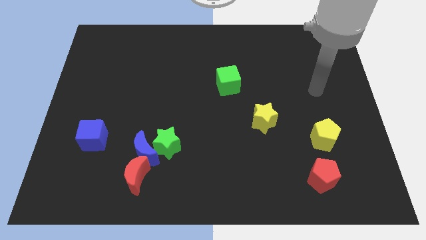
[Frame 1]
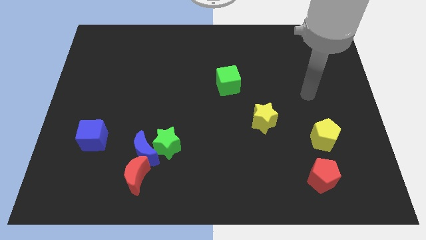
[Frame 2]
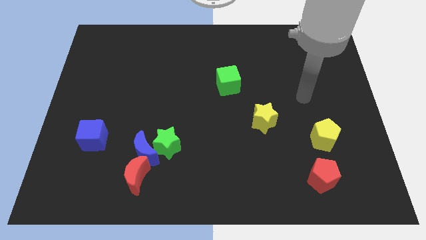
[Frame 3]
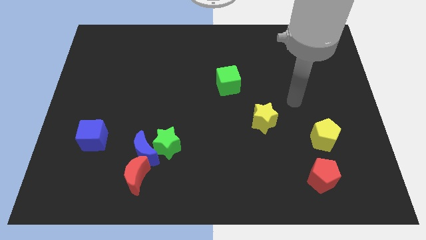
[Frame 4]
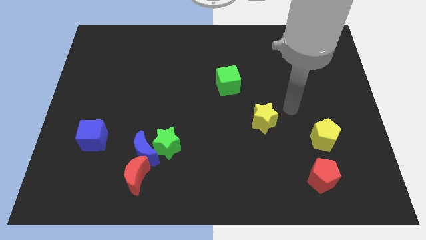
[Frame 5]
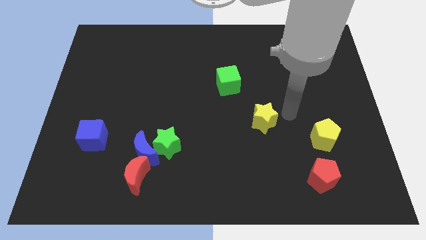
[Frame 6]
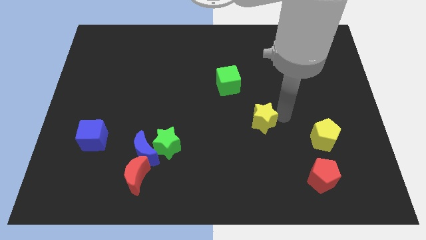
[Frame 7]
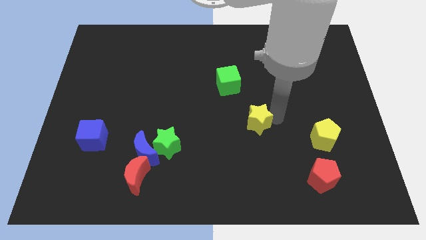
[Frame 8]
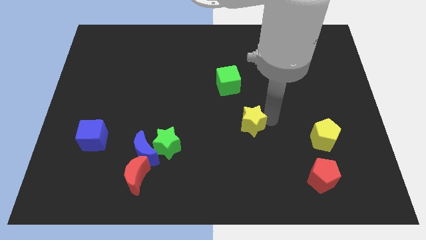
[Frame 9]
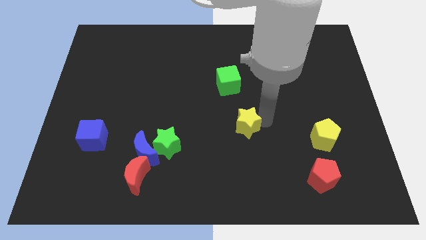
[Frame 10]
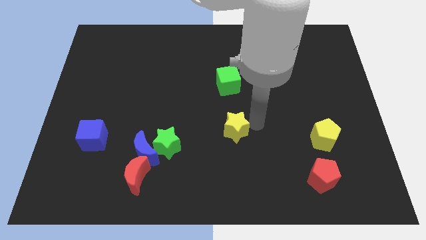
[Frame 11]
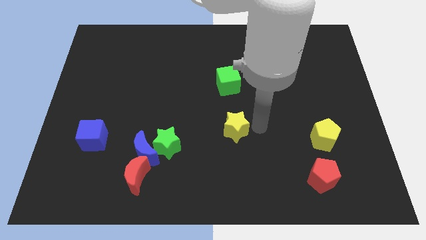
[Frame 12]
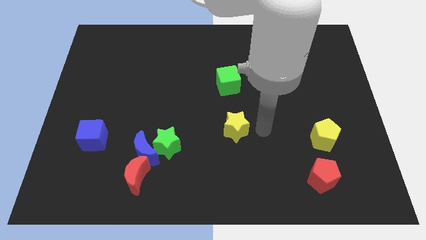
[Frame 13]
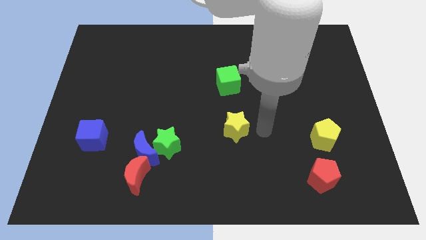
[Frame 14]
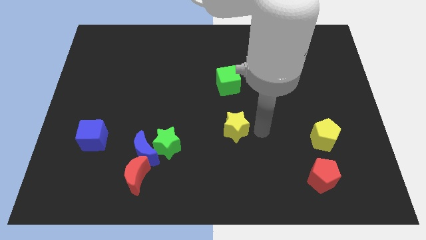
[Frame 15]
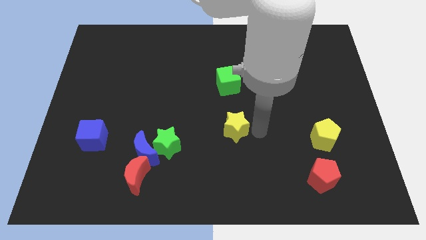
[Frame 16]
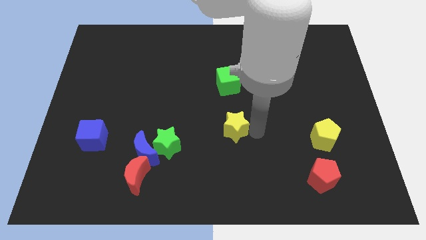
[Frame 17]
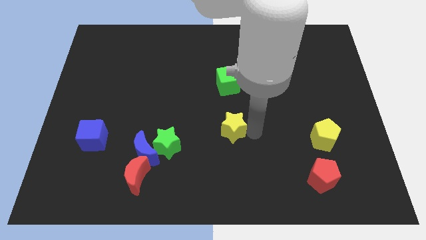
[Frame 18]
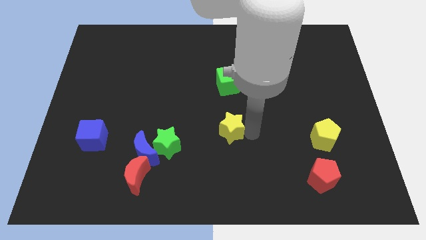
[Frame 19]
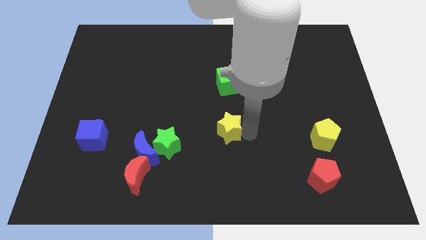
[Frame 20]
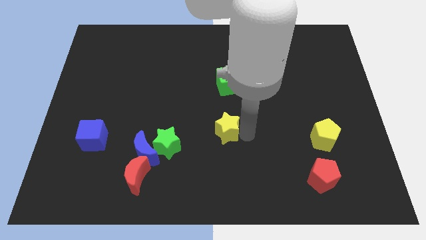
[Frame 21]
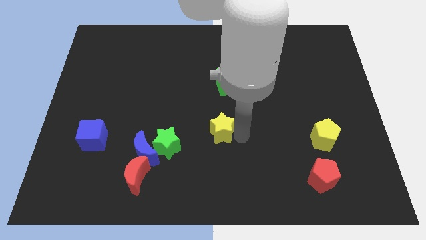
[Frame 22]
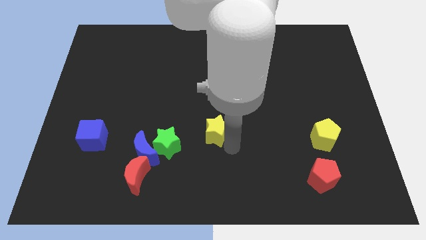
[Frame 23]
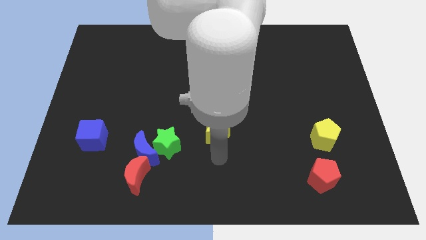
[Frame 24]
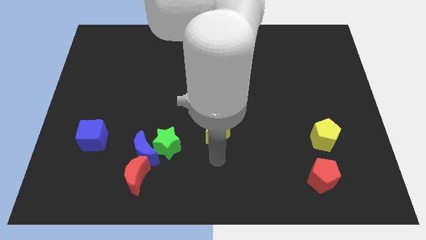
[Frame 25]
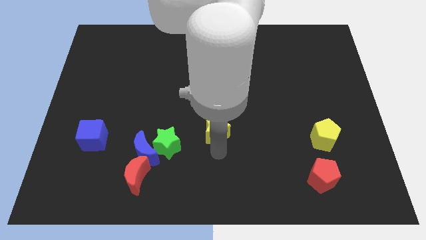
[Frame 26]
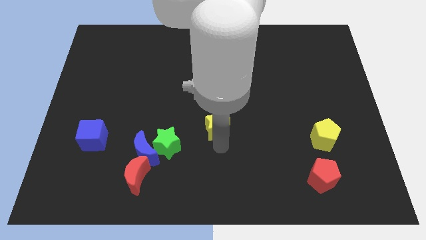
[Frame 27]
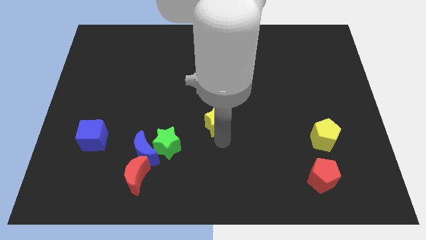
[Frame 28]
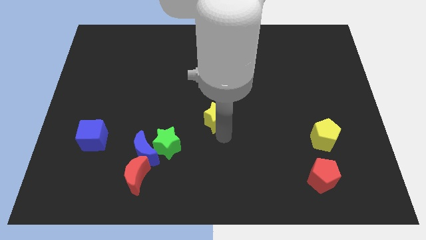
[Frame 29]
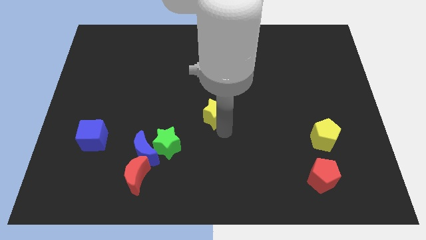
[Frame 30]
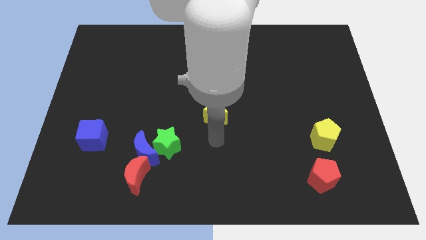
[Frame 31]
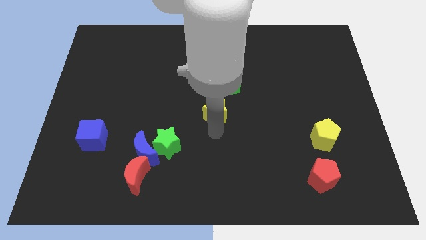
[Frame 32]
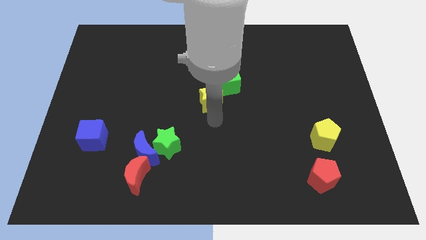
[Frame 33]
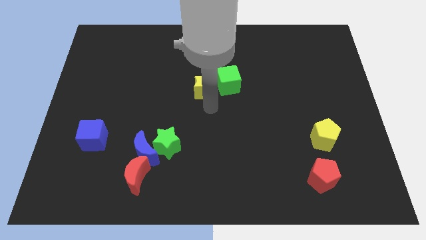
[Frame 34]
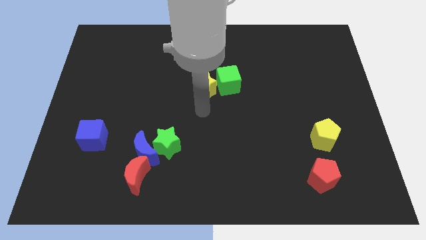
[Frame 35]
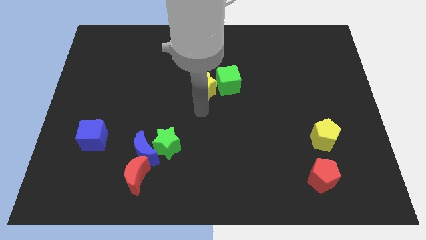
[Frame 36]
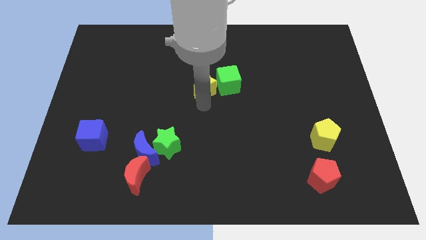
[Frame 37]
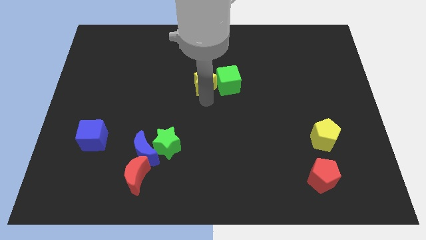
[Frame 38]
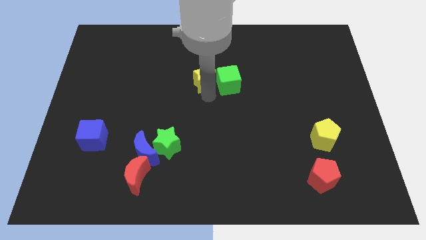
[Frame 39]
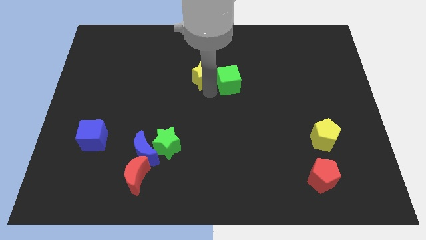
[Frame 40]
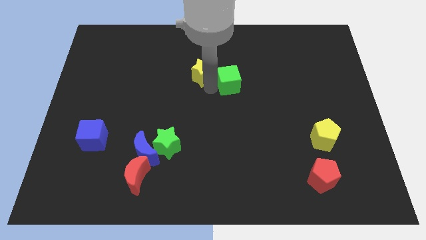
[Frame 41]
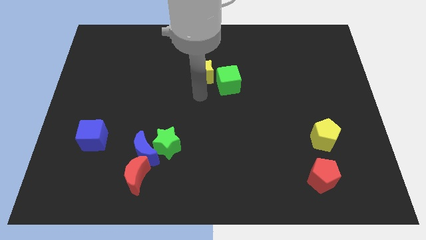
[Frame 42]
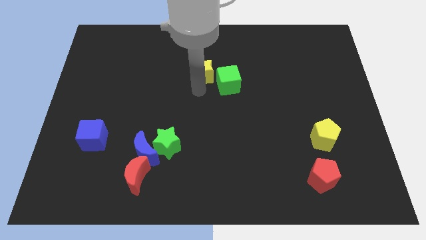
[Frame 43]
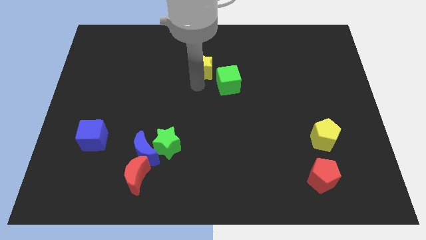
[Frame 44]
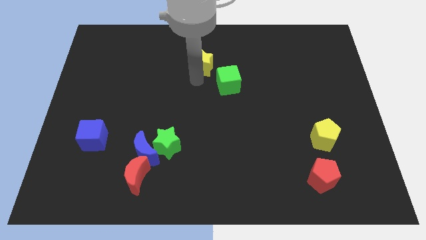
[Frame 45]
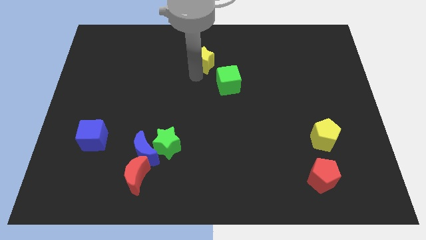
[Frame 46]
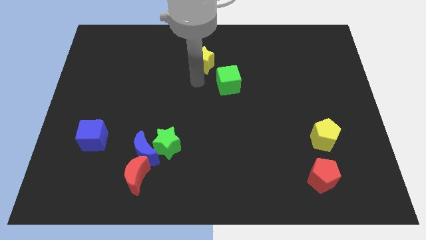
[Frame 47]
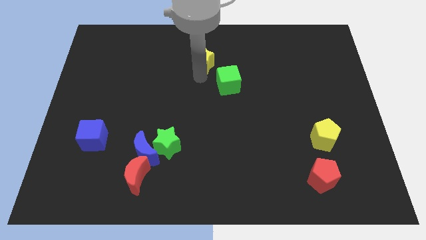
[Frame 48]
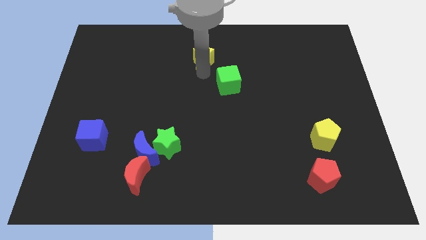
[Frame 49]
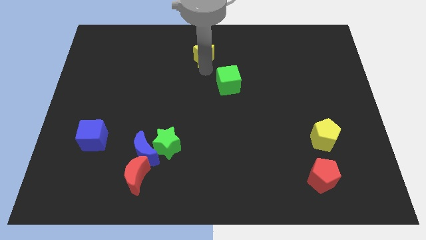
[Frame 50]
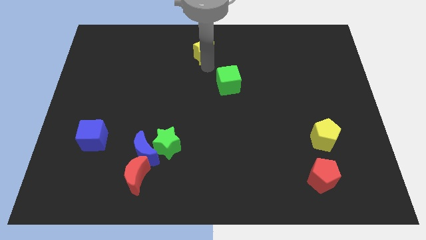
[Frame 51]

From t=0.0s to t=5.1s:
move the yellow star to the towards your base

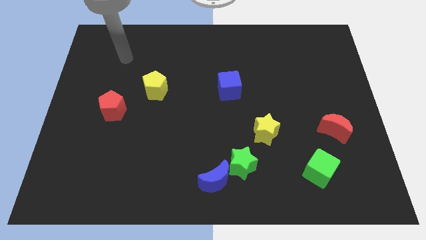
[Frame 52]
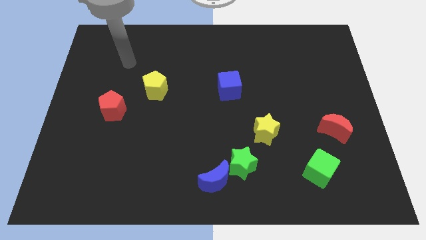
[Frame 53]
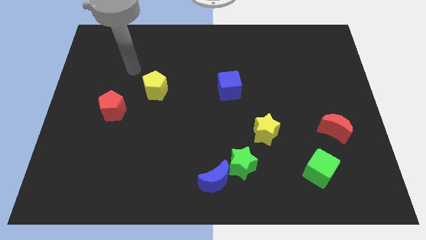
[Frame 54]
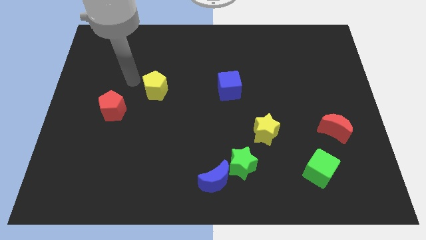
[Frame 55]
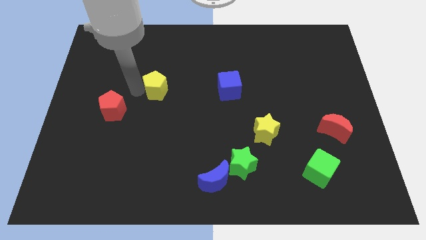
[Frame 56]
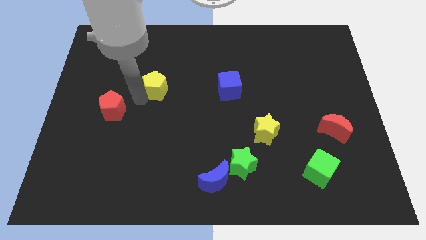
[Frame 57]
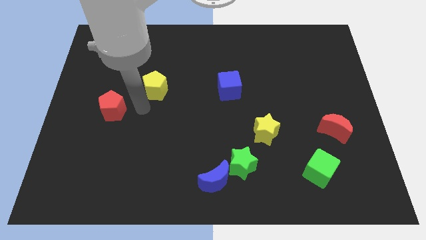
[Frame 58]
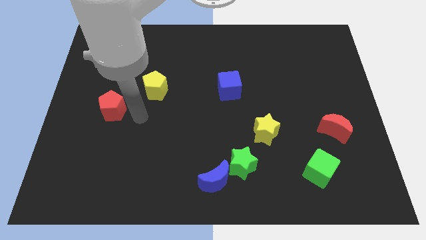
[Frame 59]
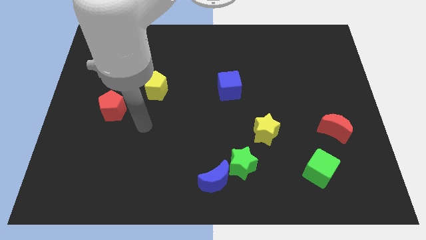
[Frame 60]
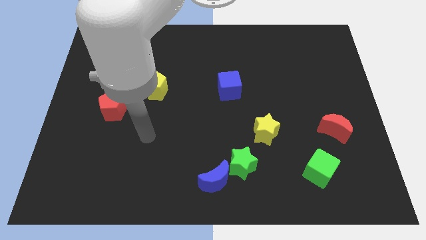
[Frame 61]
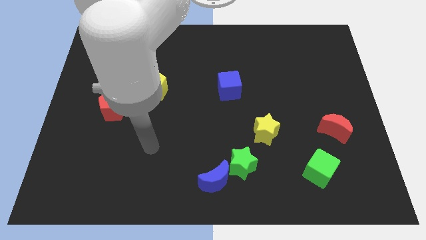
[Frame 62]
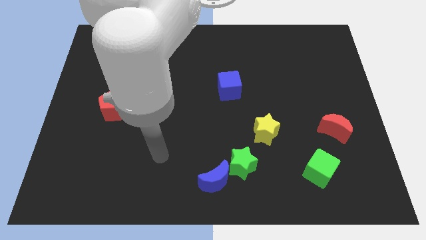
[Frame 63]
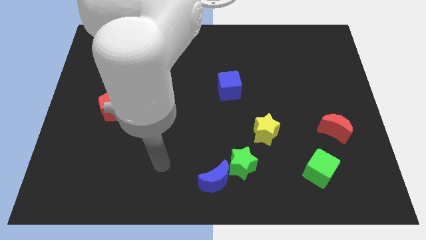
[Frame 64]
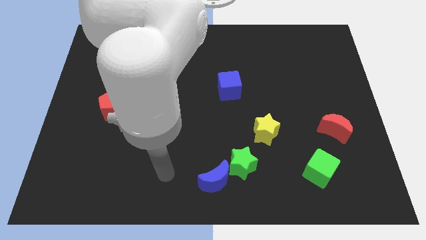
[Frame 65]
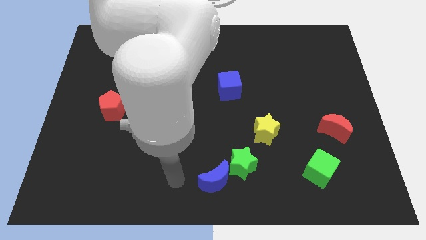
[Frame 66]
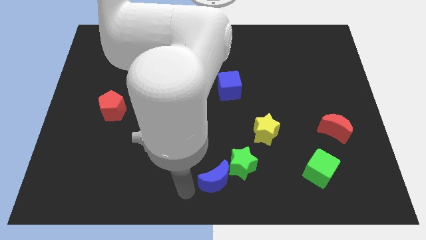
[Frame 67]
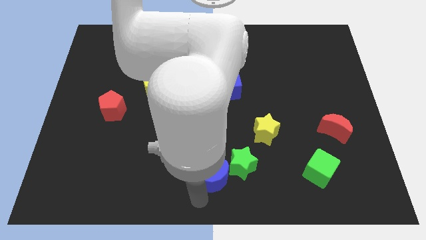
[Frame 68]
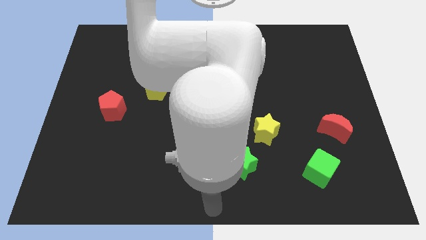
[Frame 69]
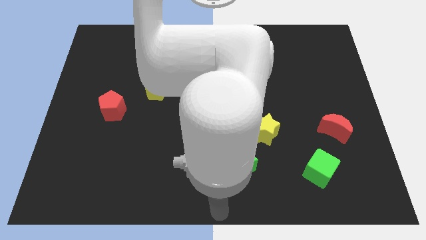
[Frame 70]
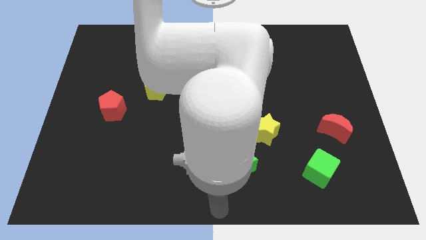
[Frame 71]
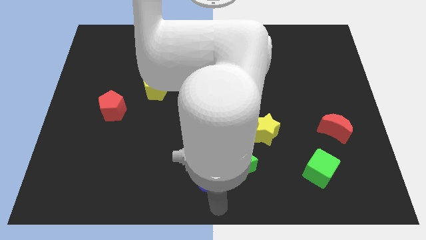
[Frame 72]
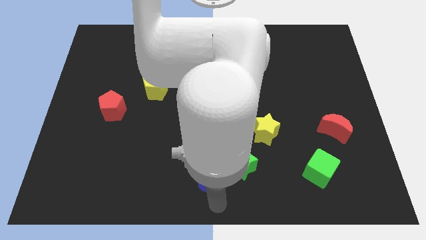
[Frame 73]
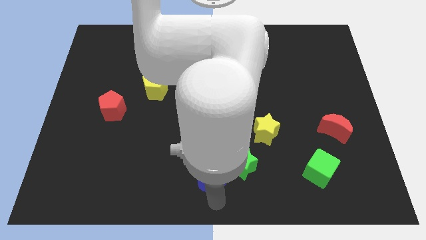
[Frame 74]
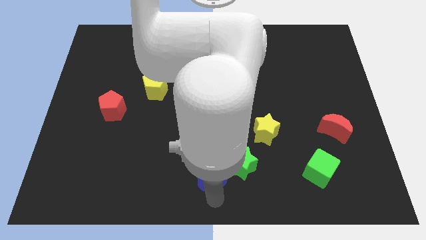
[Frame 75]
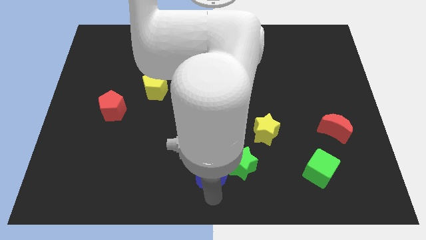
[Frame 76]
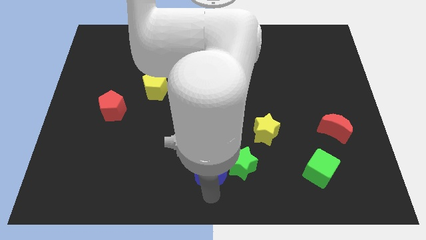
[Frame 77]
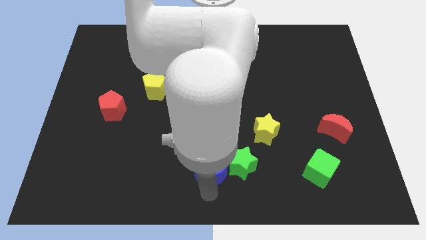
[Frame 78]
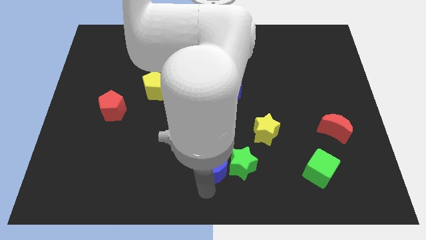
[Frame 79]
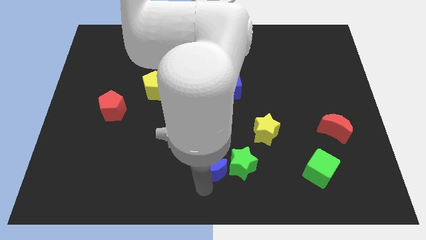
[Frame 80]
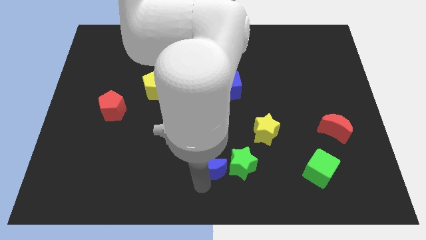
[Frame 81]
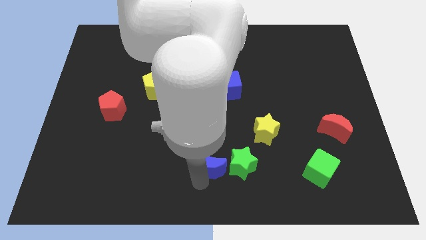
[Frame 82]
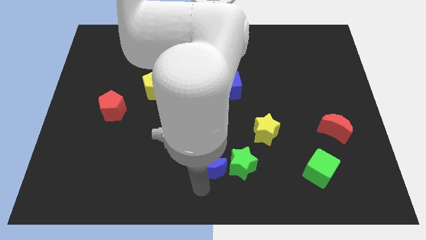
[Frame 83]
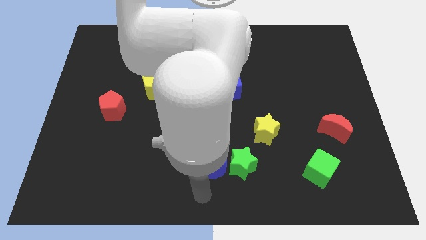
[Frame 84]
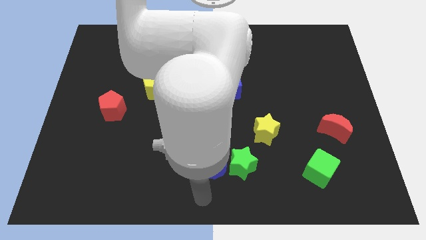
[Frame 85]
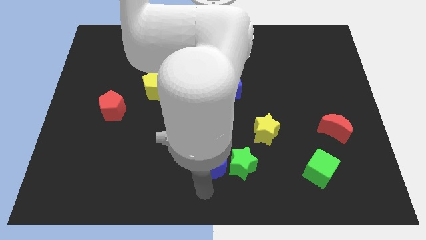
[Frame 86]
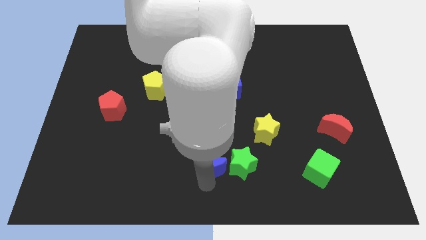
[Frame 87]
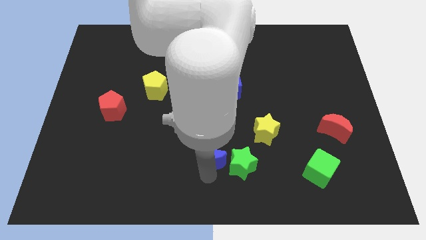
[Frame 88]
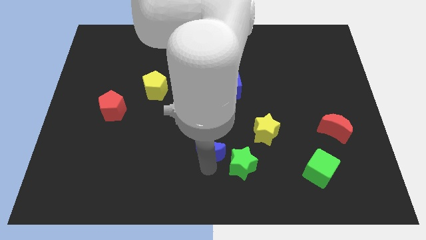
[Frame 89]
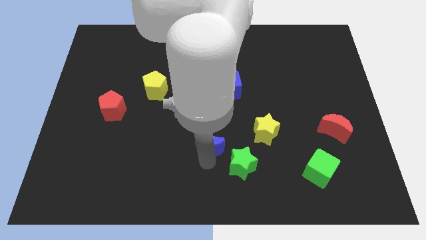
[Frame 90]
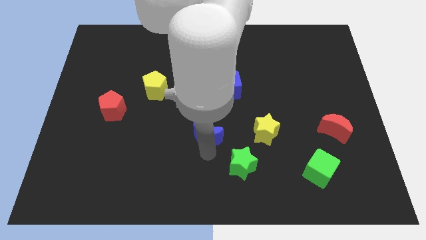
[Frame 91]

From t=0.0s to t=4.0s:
put the blue moon to the middle of the board
